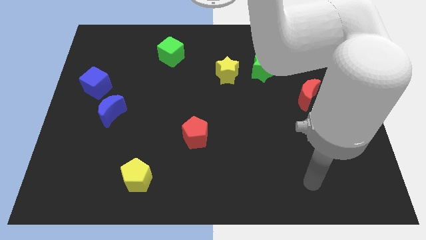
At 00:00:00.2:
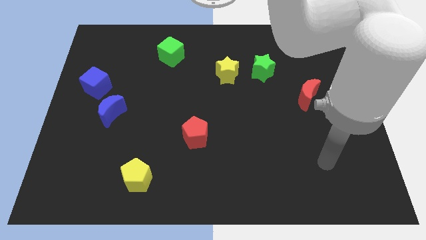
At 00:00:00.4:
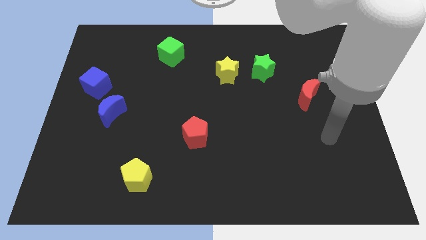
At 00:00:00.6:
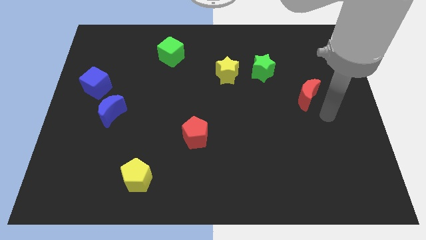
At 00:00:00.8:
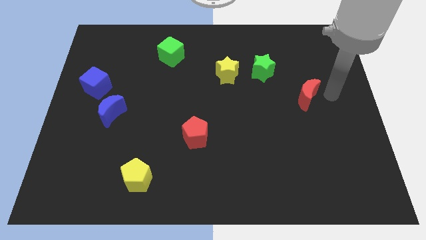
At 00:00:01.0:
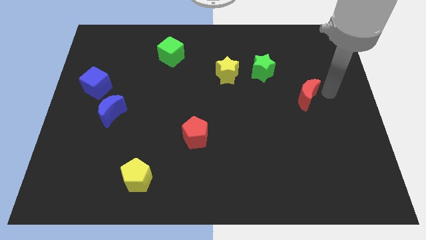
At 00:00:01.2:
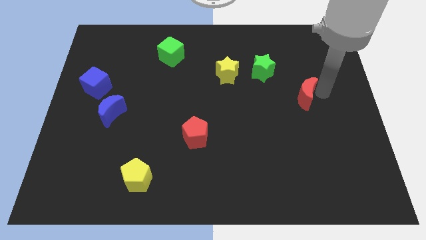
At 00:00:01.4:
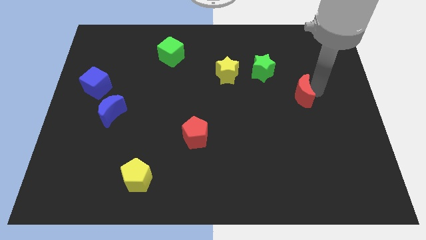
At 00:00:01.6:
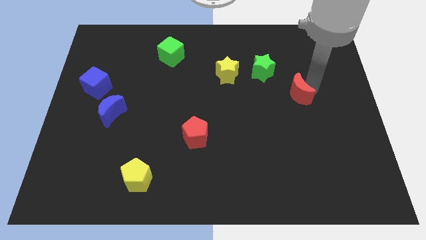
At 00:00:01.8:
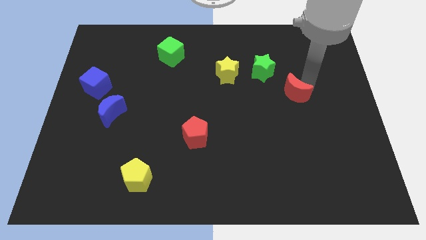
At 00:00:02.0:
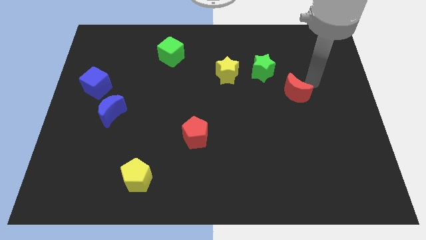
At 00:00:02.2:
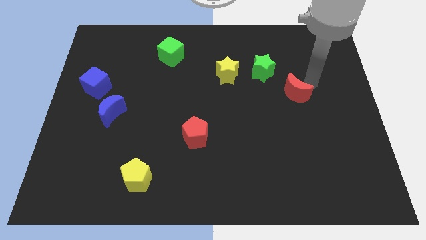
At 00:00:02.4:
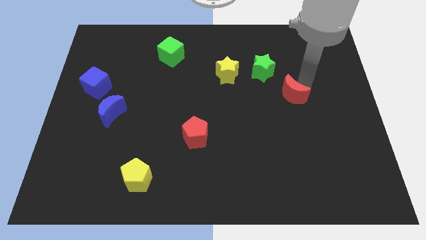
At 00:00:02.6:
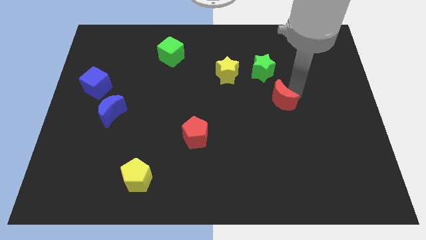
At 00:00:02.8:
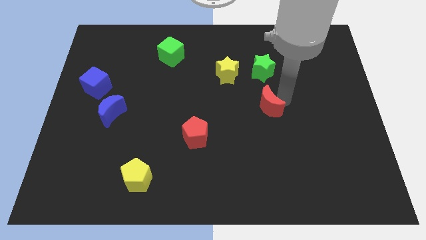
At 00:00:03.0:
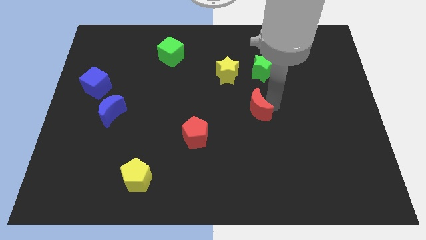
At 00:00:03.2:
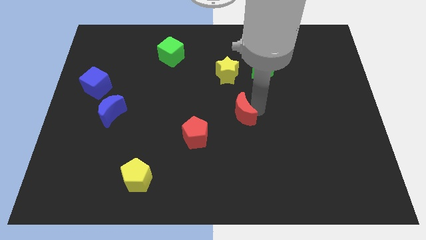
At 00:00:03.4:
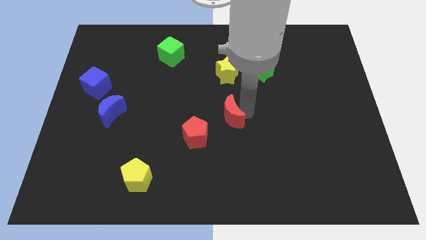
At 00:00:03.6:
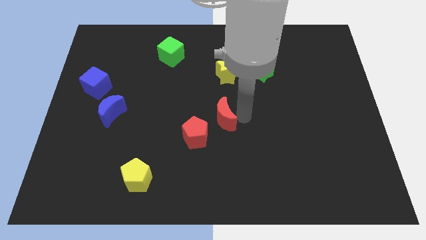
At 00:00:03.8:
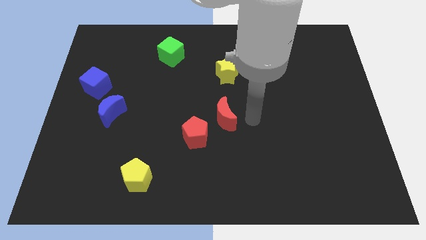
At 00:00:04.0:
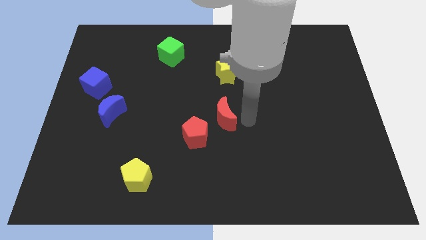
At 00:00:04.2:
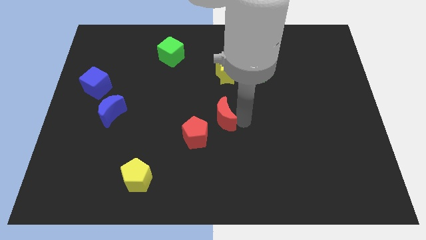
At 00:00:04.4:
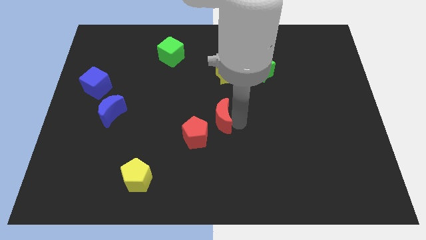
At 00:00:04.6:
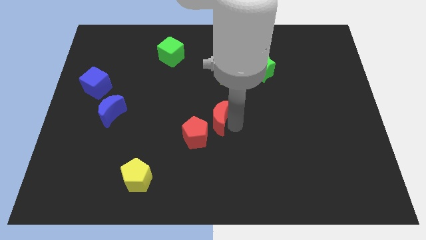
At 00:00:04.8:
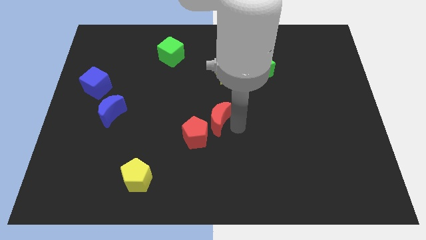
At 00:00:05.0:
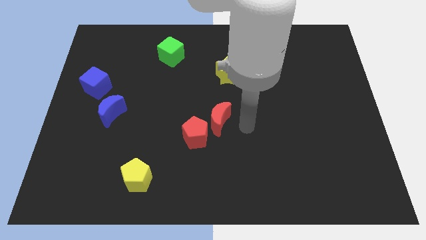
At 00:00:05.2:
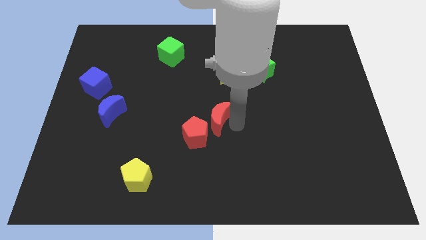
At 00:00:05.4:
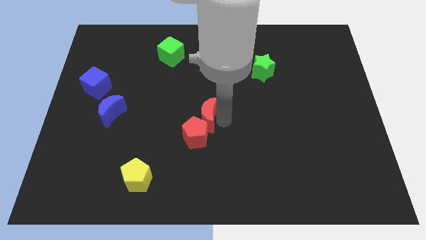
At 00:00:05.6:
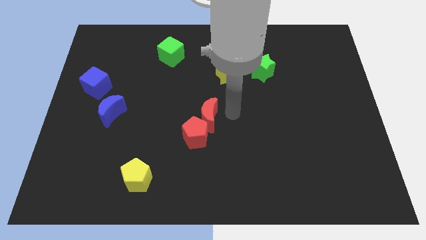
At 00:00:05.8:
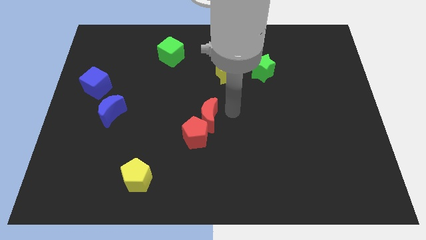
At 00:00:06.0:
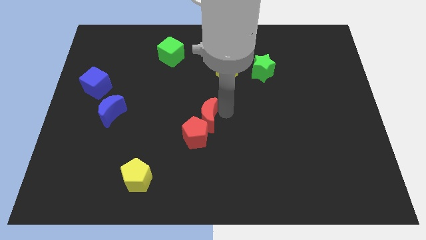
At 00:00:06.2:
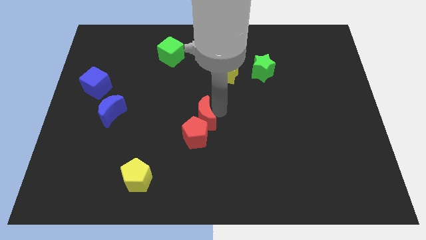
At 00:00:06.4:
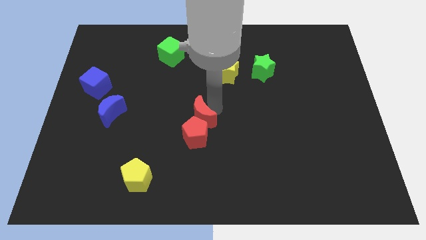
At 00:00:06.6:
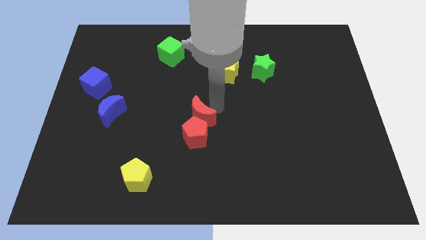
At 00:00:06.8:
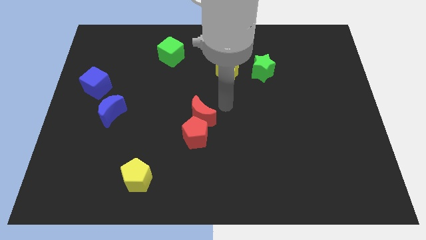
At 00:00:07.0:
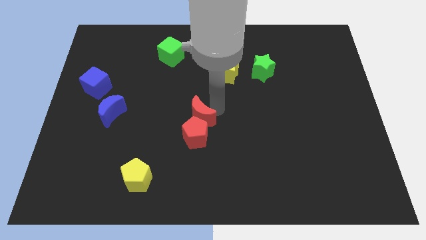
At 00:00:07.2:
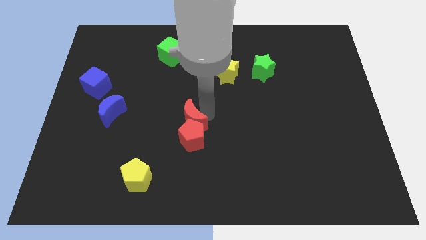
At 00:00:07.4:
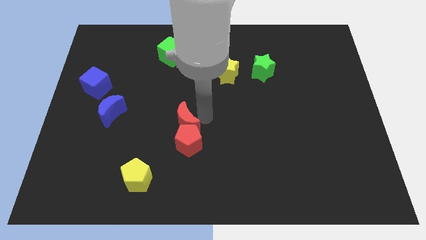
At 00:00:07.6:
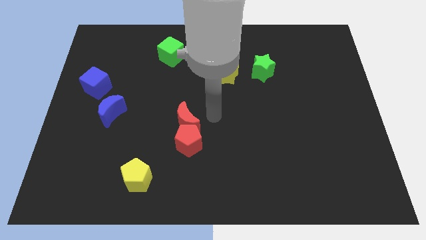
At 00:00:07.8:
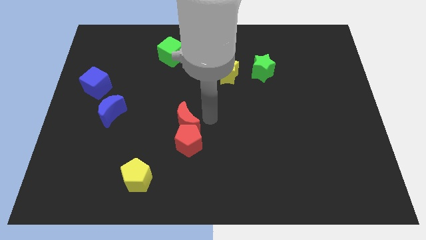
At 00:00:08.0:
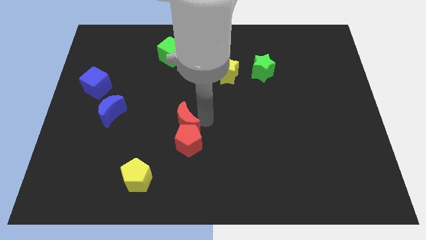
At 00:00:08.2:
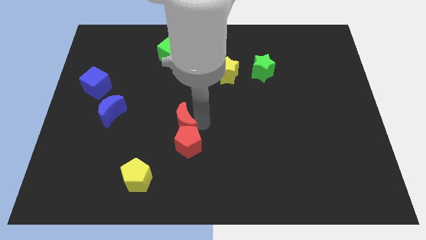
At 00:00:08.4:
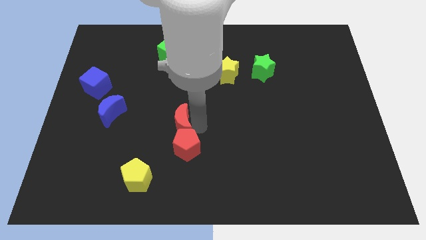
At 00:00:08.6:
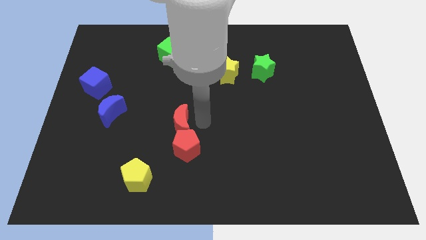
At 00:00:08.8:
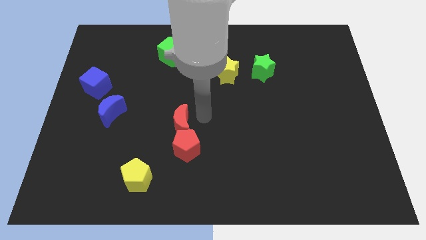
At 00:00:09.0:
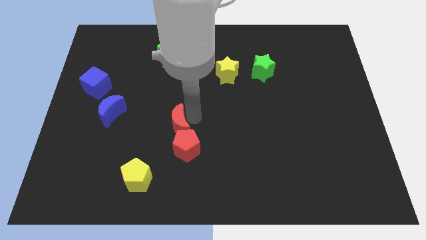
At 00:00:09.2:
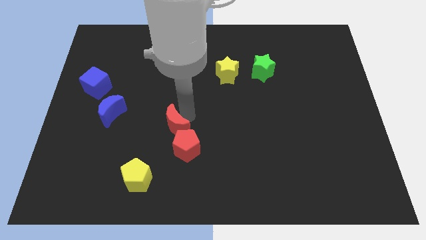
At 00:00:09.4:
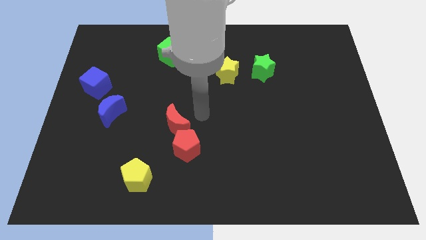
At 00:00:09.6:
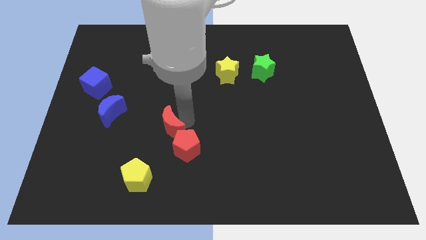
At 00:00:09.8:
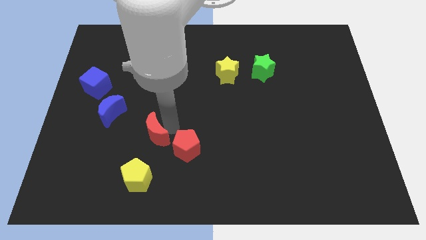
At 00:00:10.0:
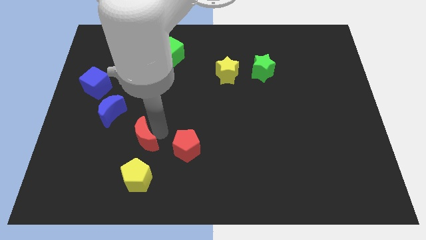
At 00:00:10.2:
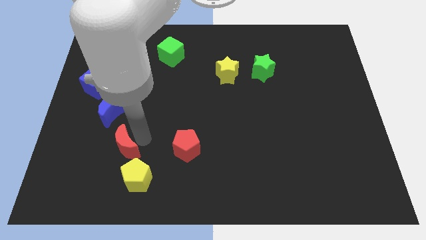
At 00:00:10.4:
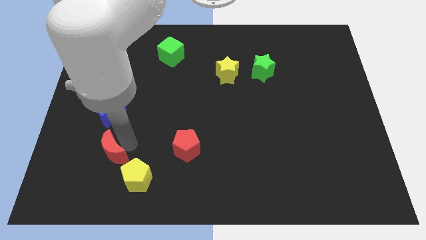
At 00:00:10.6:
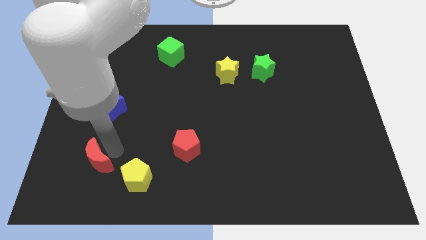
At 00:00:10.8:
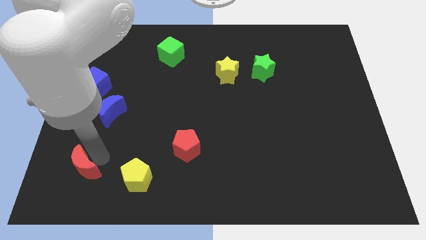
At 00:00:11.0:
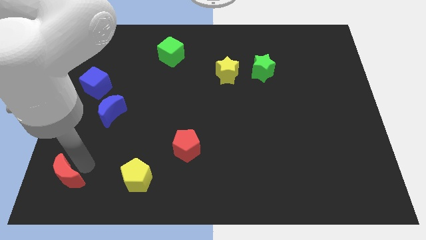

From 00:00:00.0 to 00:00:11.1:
move the red moon to the bottom left corner
